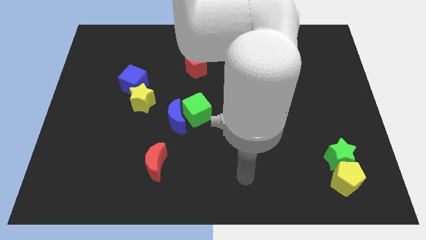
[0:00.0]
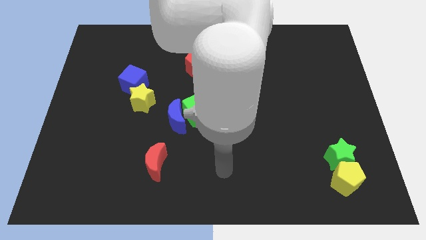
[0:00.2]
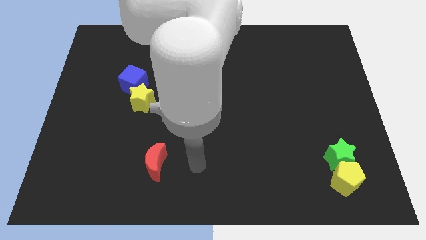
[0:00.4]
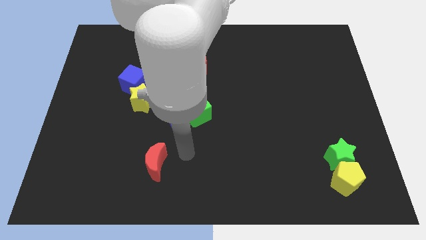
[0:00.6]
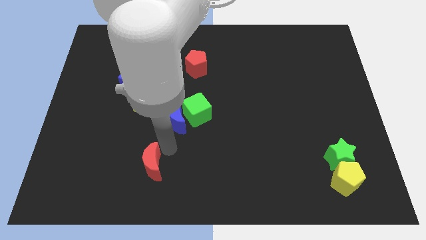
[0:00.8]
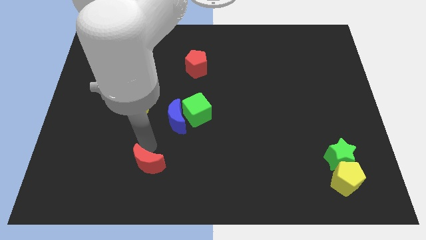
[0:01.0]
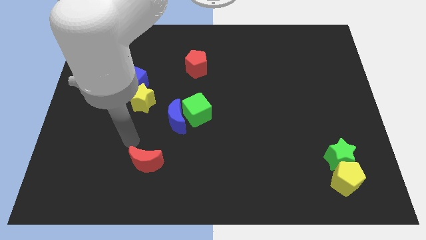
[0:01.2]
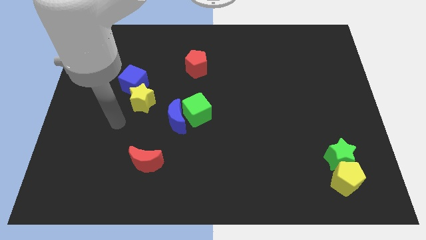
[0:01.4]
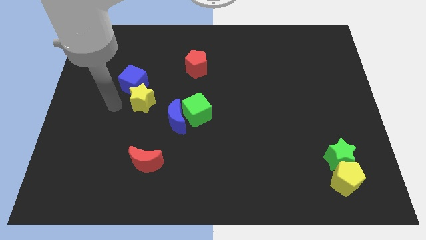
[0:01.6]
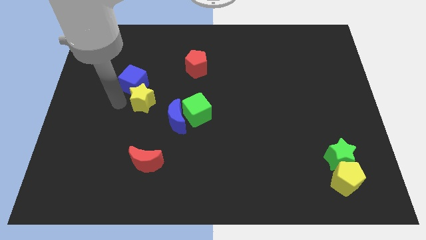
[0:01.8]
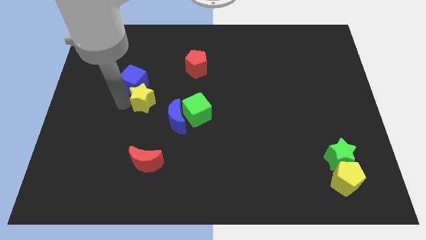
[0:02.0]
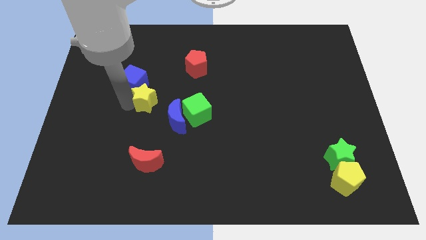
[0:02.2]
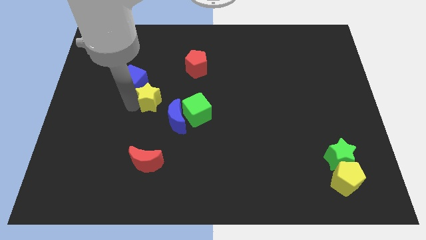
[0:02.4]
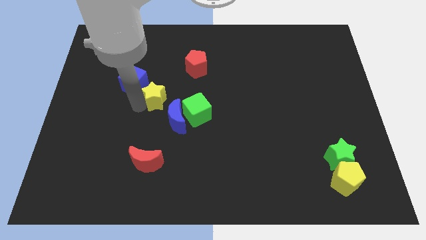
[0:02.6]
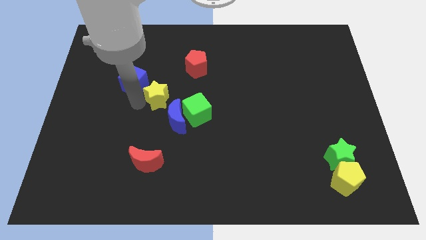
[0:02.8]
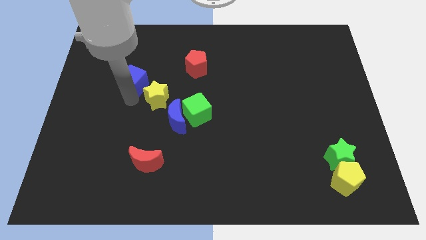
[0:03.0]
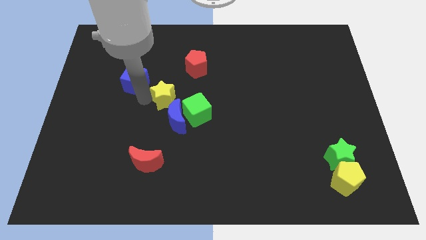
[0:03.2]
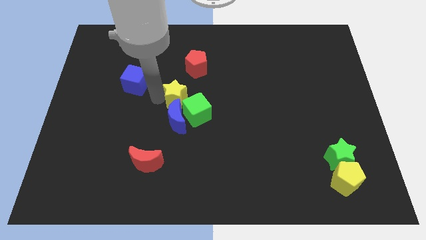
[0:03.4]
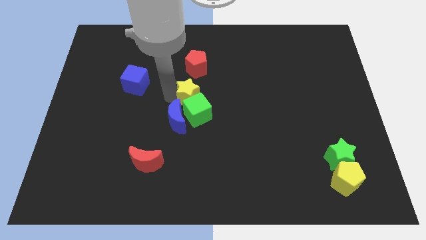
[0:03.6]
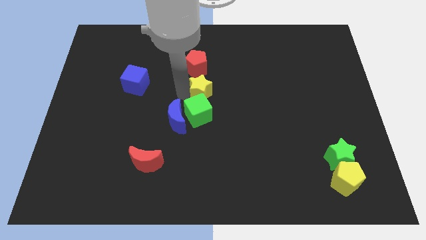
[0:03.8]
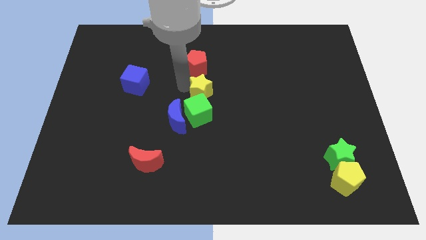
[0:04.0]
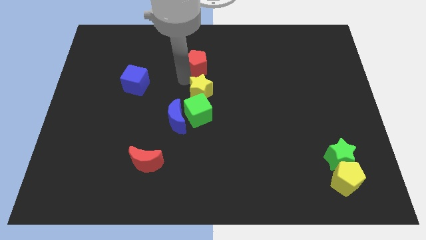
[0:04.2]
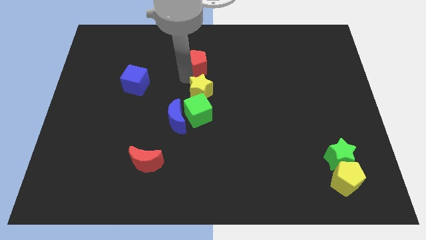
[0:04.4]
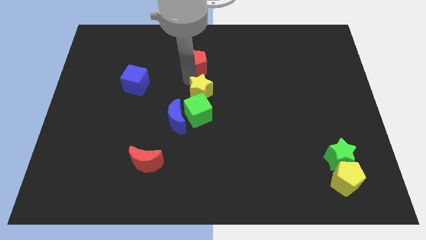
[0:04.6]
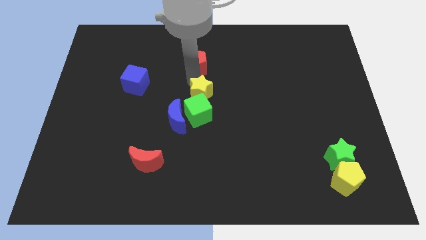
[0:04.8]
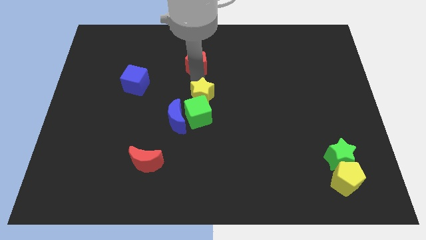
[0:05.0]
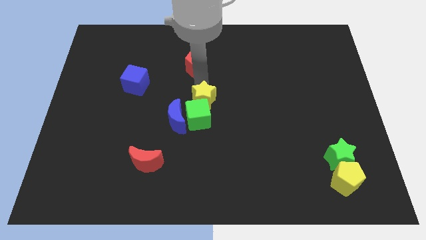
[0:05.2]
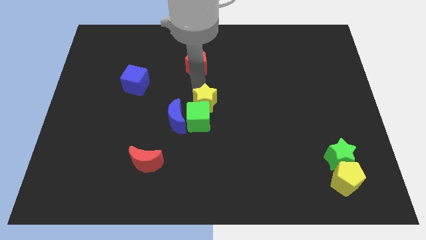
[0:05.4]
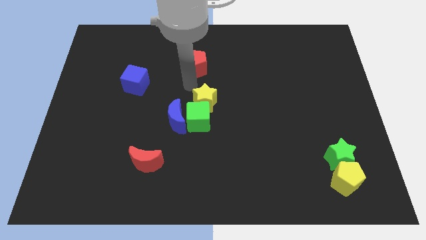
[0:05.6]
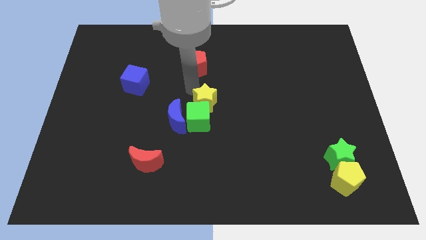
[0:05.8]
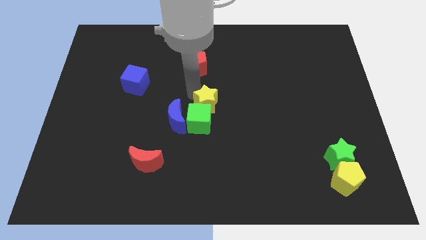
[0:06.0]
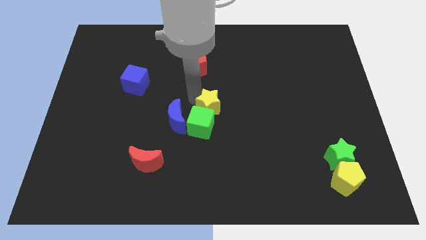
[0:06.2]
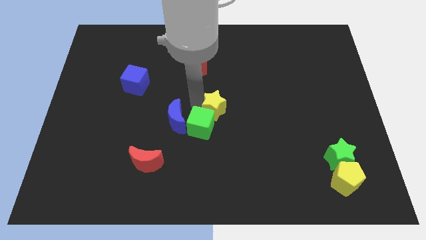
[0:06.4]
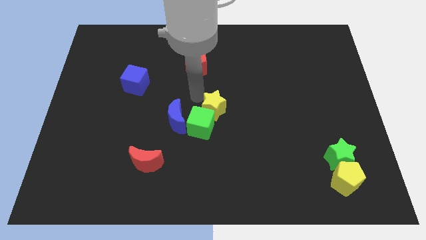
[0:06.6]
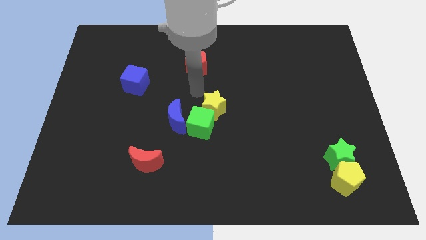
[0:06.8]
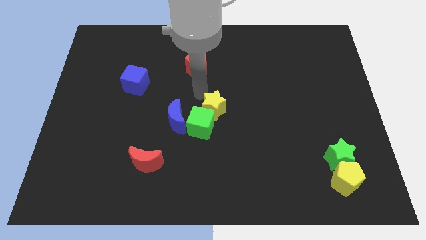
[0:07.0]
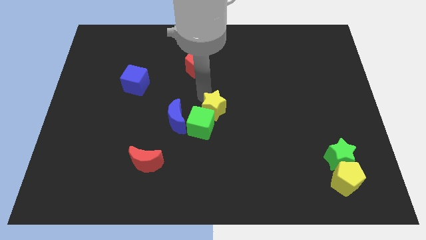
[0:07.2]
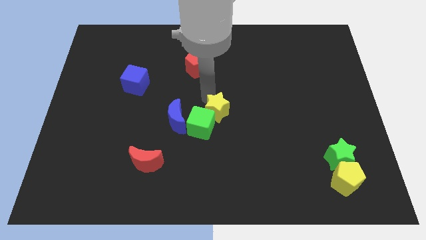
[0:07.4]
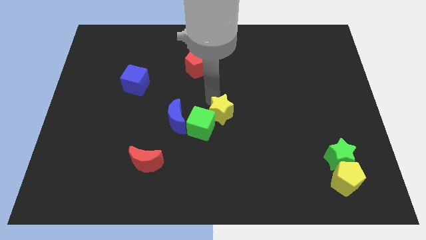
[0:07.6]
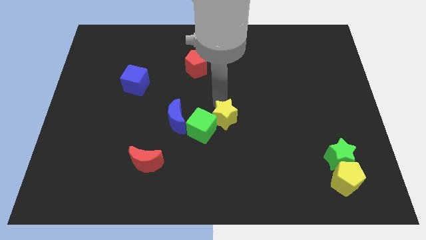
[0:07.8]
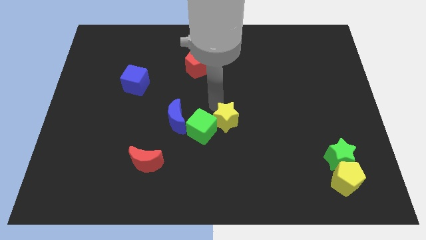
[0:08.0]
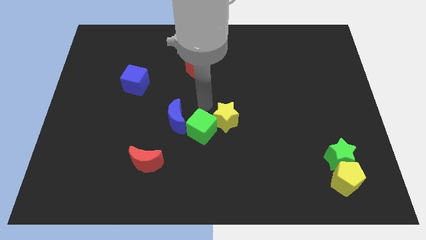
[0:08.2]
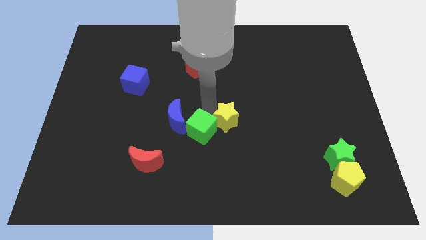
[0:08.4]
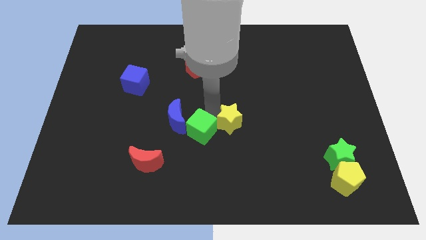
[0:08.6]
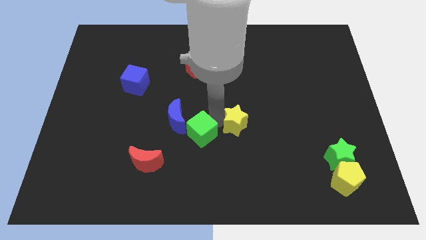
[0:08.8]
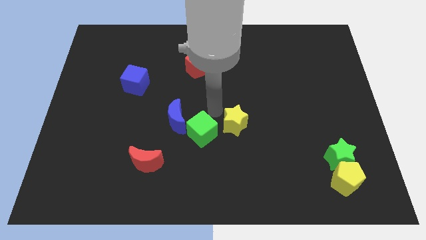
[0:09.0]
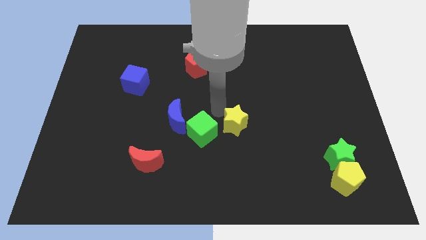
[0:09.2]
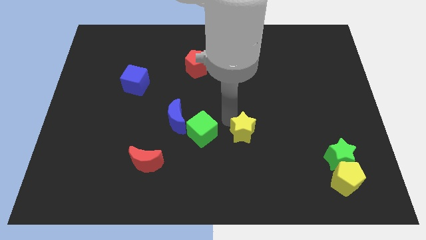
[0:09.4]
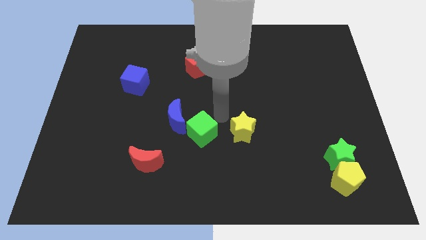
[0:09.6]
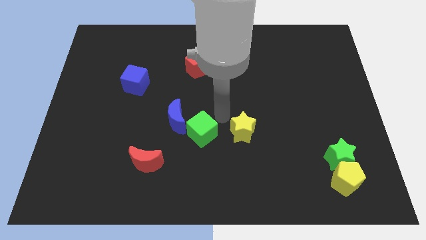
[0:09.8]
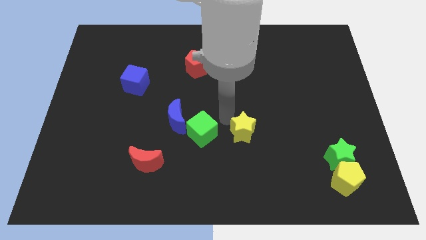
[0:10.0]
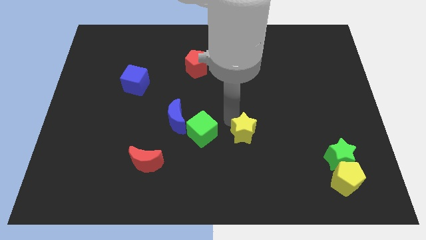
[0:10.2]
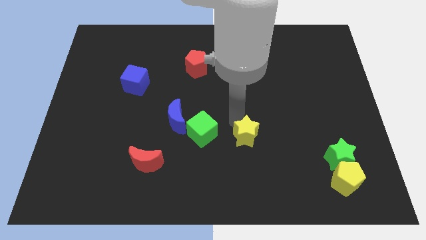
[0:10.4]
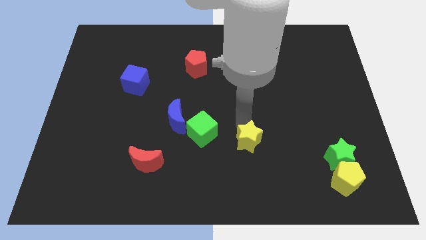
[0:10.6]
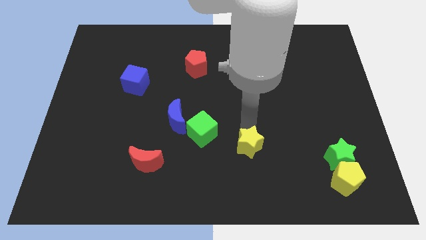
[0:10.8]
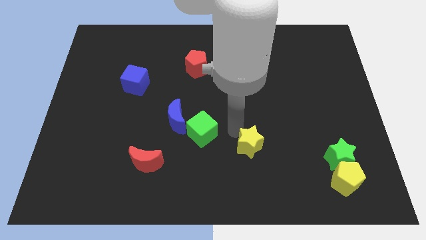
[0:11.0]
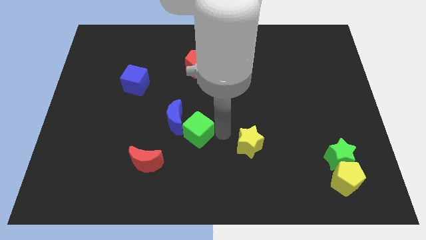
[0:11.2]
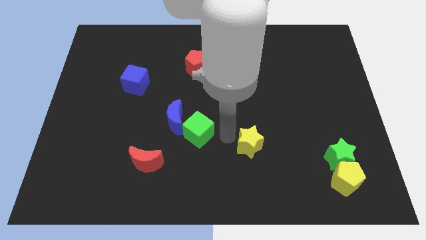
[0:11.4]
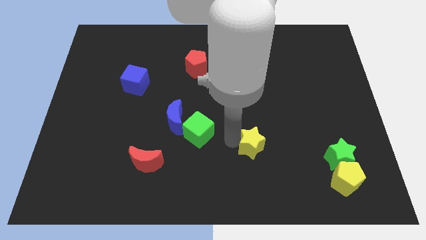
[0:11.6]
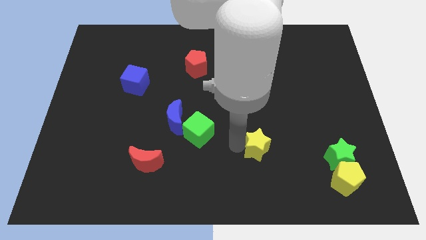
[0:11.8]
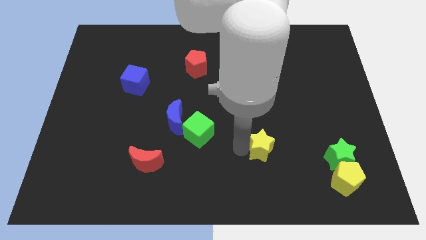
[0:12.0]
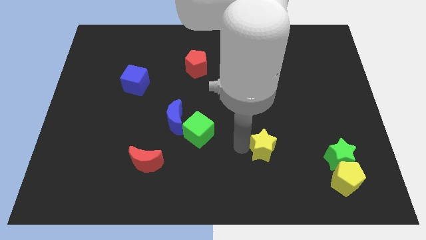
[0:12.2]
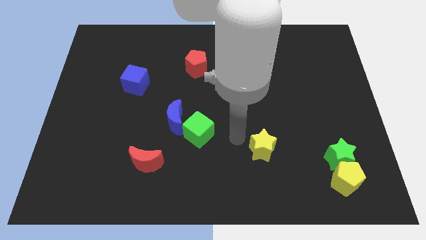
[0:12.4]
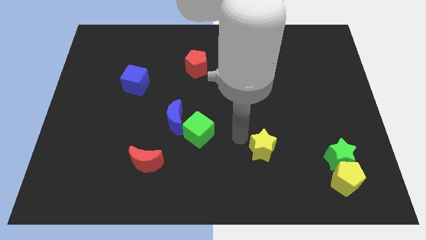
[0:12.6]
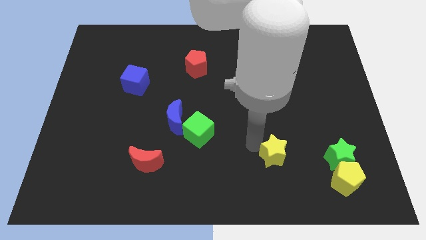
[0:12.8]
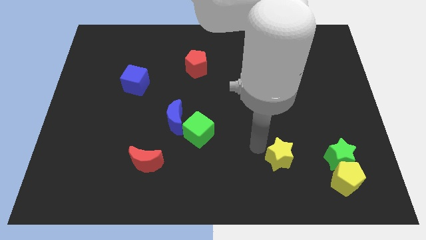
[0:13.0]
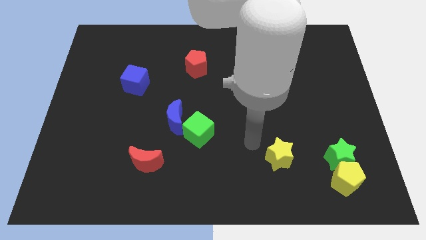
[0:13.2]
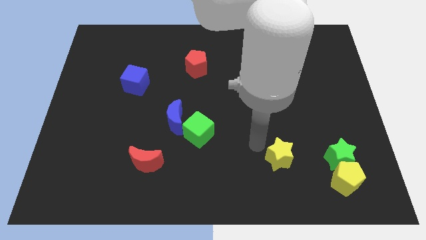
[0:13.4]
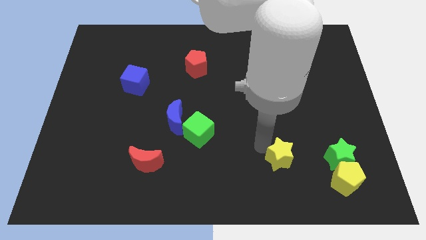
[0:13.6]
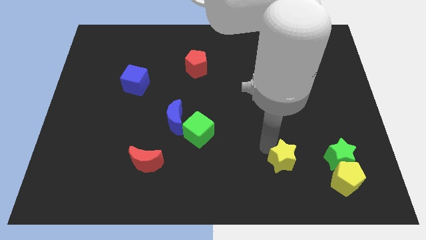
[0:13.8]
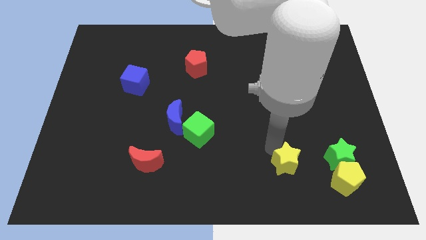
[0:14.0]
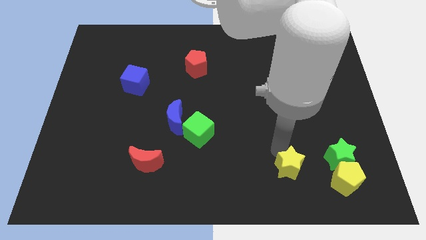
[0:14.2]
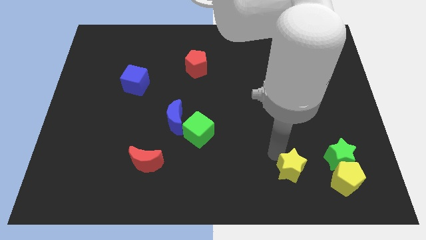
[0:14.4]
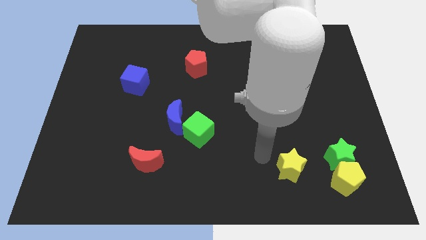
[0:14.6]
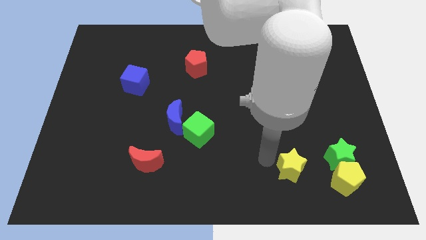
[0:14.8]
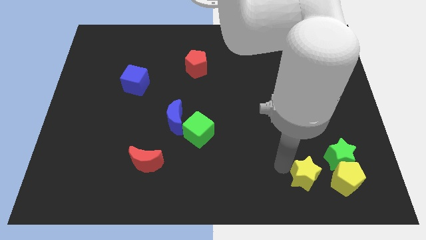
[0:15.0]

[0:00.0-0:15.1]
slide the yellow star diagonally down and to the left of the green star

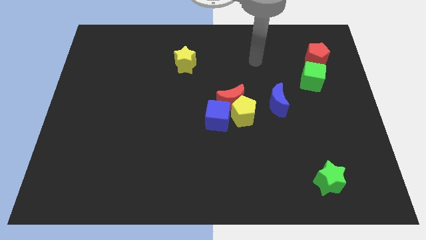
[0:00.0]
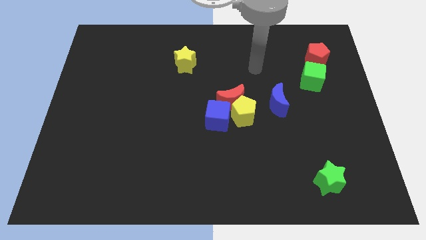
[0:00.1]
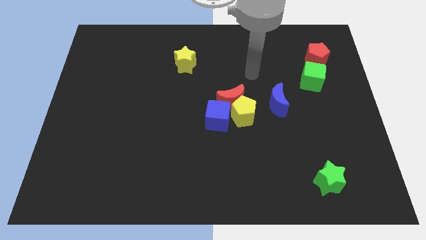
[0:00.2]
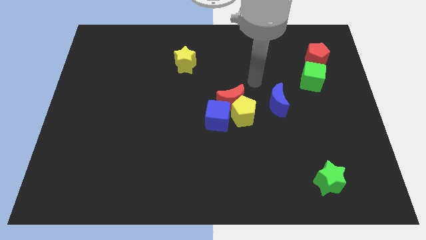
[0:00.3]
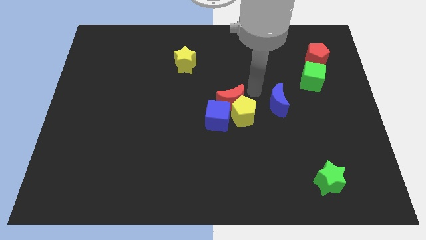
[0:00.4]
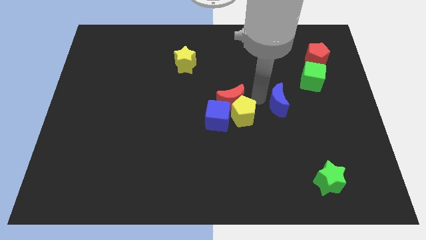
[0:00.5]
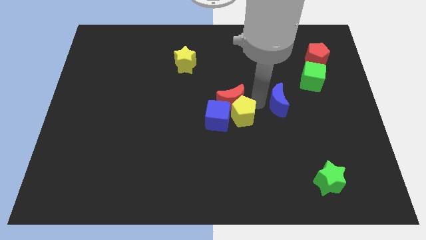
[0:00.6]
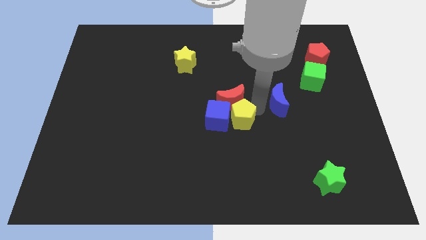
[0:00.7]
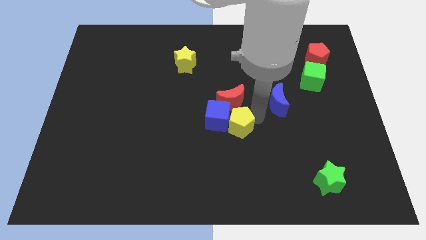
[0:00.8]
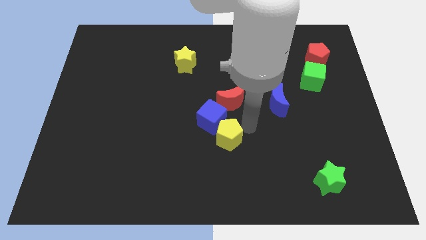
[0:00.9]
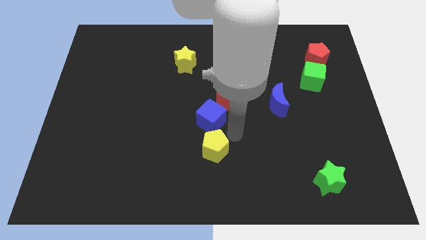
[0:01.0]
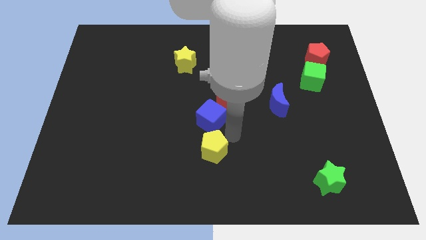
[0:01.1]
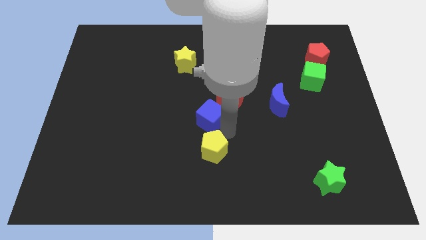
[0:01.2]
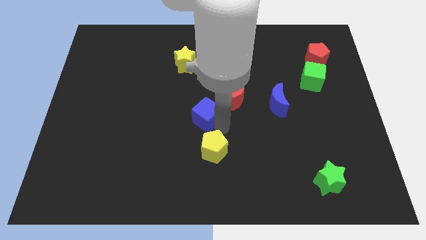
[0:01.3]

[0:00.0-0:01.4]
move the blue cube to the left of the red moon
